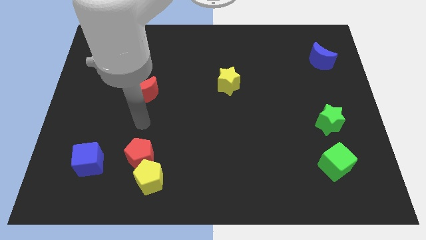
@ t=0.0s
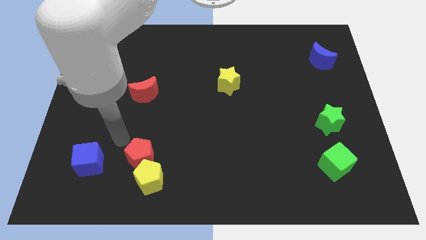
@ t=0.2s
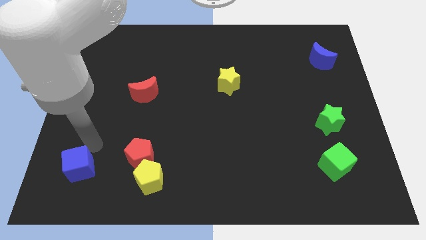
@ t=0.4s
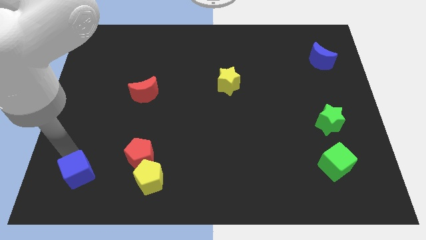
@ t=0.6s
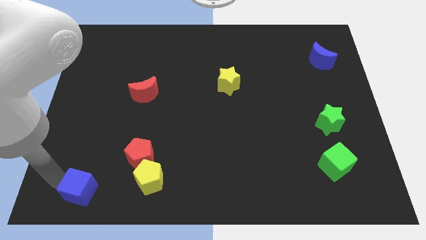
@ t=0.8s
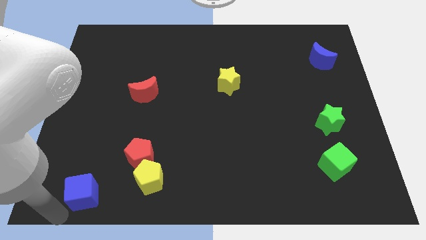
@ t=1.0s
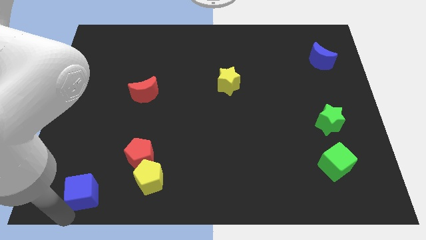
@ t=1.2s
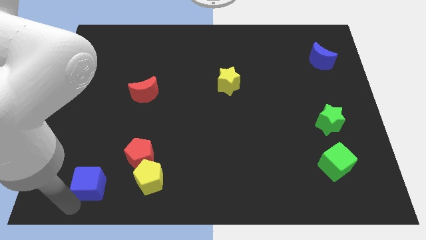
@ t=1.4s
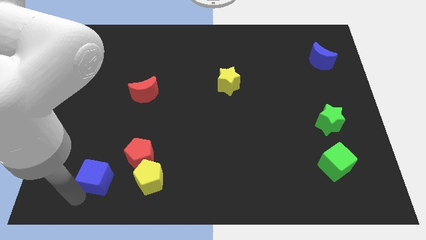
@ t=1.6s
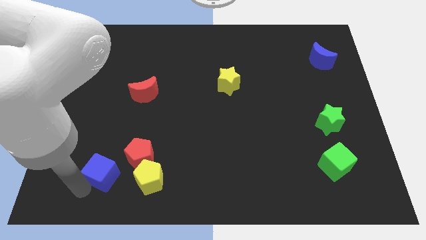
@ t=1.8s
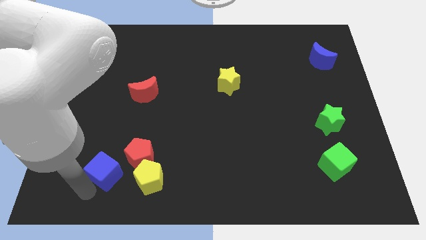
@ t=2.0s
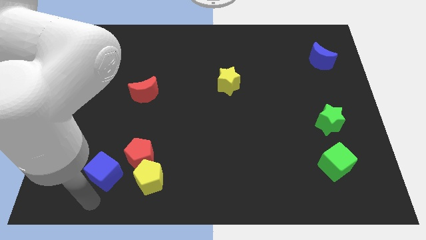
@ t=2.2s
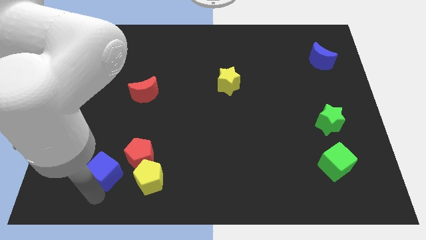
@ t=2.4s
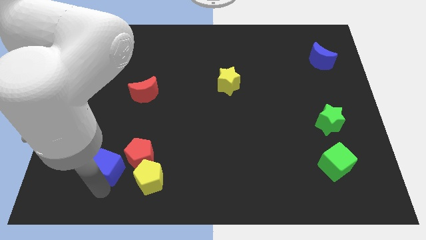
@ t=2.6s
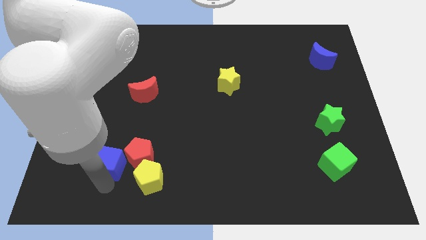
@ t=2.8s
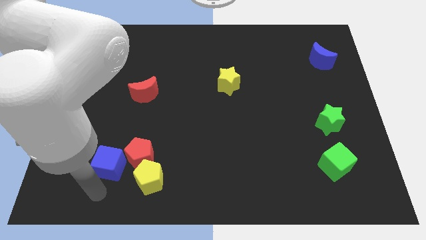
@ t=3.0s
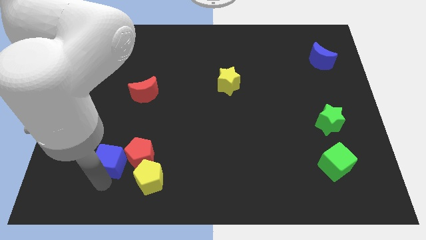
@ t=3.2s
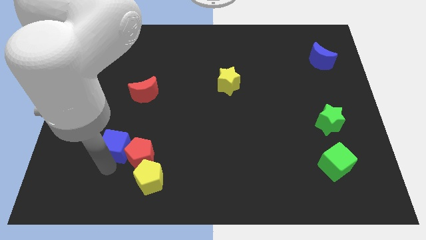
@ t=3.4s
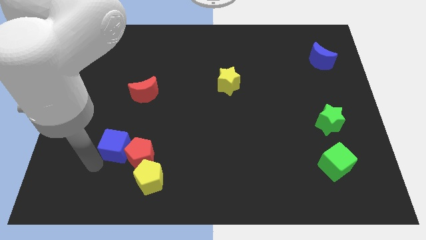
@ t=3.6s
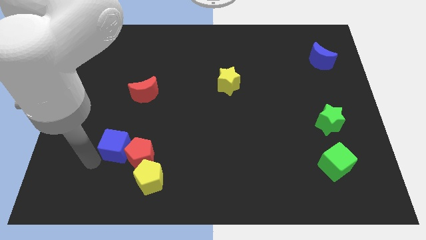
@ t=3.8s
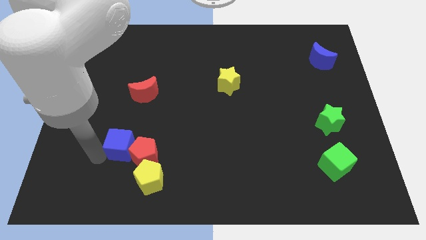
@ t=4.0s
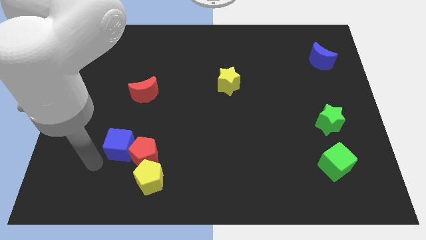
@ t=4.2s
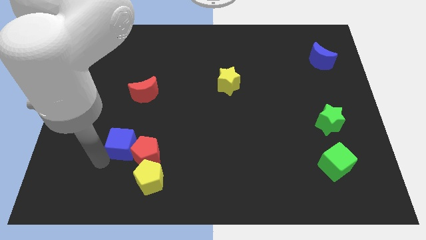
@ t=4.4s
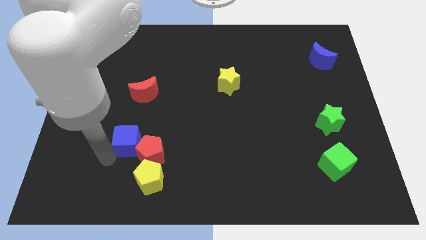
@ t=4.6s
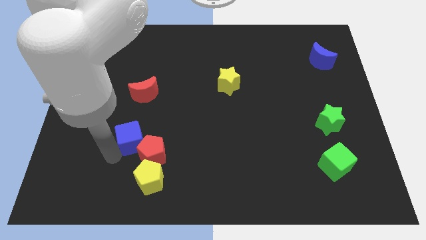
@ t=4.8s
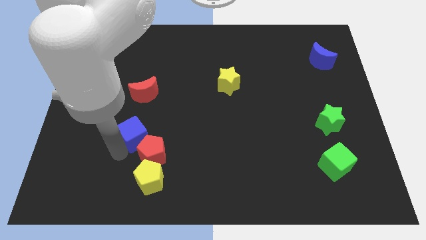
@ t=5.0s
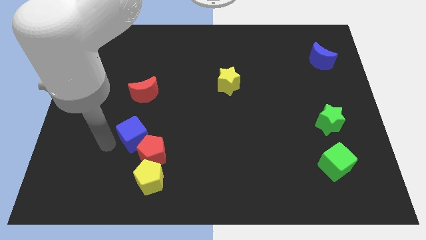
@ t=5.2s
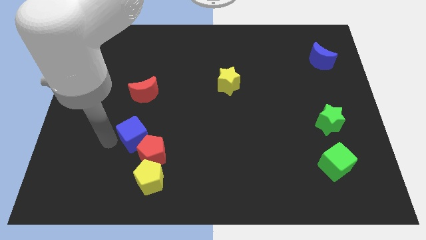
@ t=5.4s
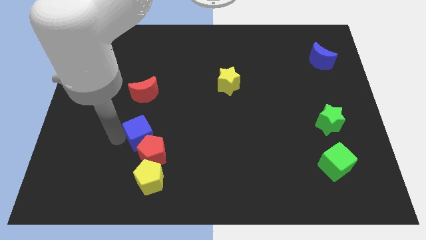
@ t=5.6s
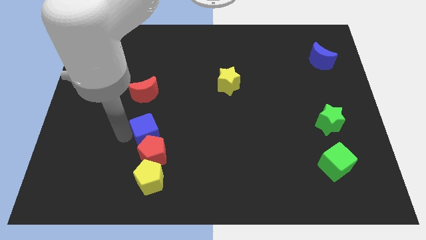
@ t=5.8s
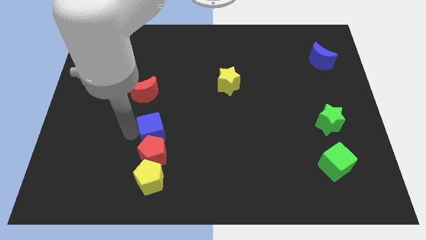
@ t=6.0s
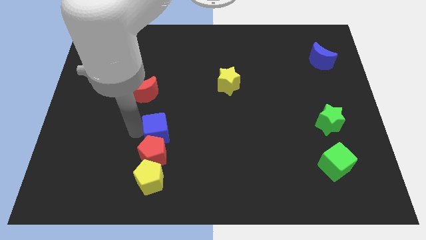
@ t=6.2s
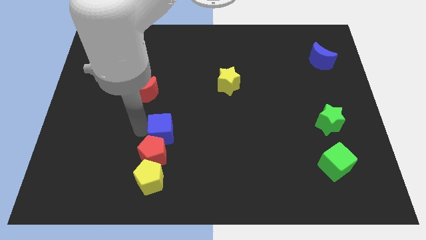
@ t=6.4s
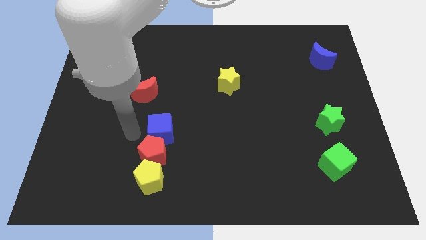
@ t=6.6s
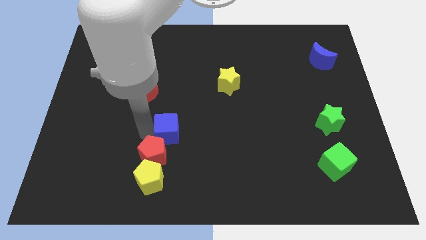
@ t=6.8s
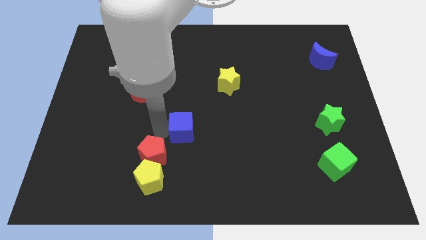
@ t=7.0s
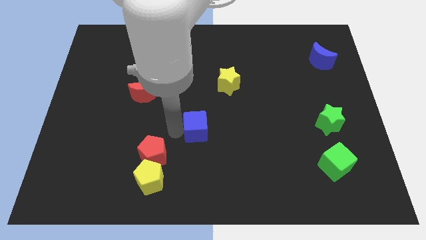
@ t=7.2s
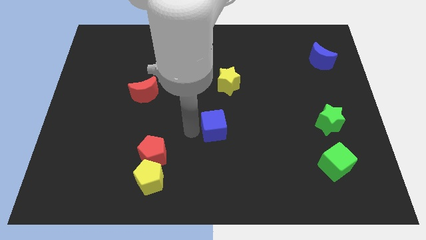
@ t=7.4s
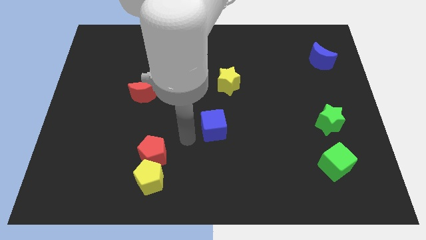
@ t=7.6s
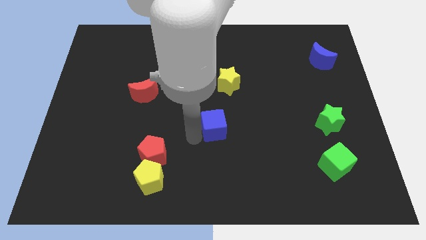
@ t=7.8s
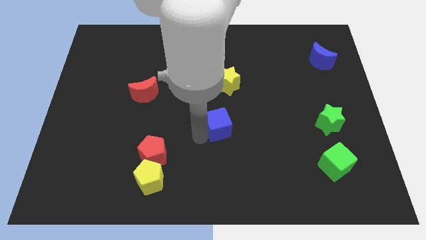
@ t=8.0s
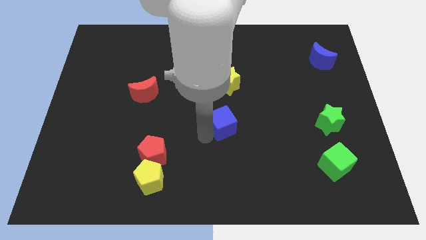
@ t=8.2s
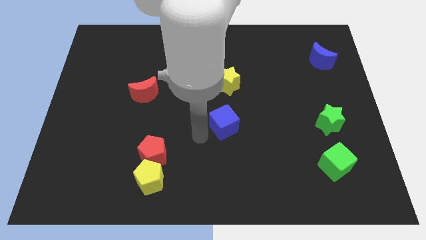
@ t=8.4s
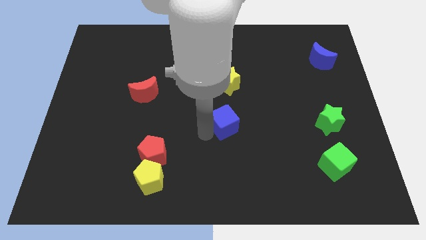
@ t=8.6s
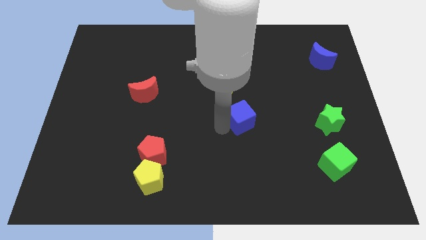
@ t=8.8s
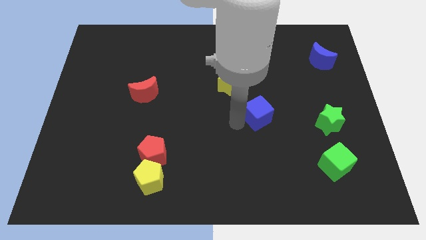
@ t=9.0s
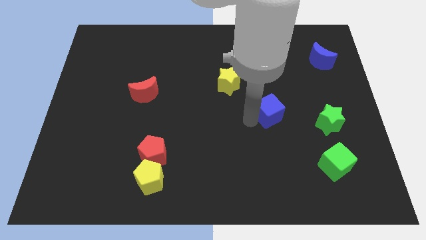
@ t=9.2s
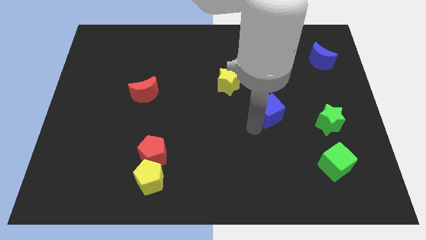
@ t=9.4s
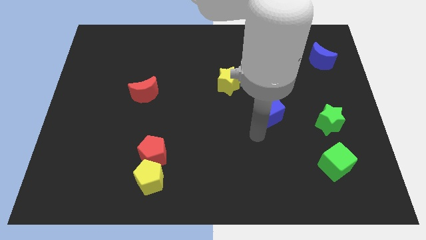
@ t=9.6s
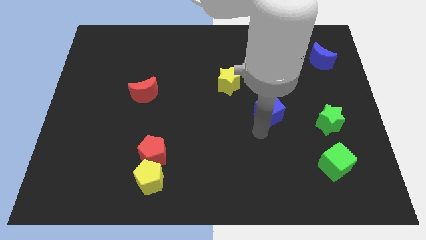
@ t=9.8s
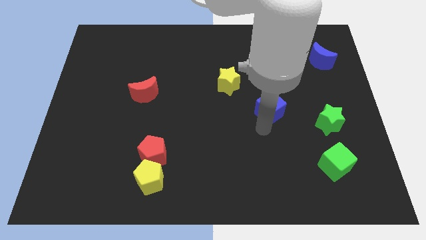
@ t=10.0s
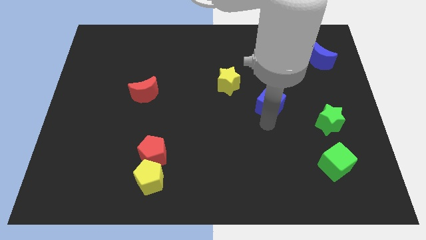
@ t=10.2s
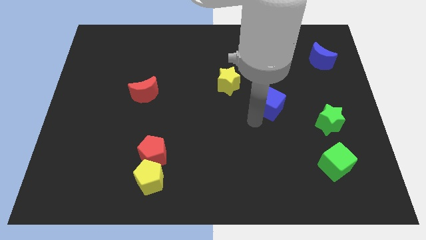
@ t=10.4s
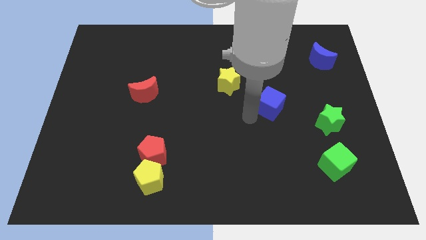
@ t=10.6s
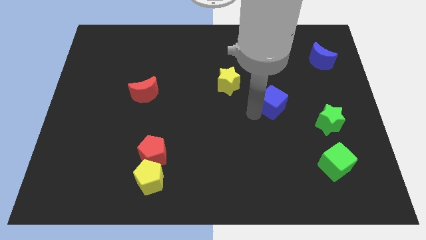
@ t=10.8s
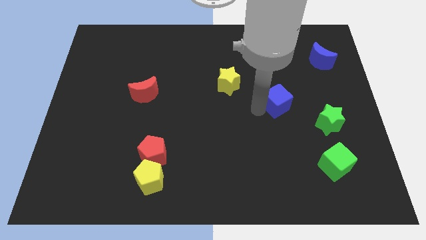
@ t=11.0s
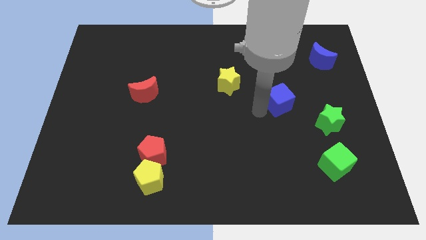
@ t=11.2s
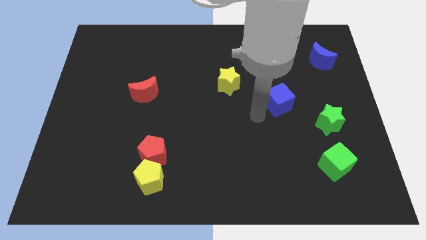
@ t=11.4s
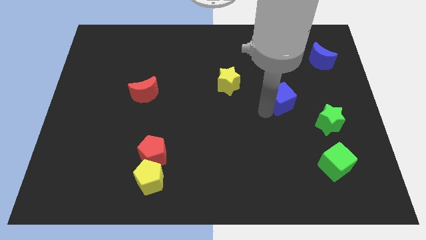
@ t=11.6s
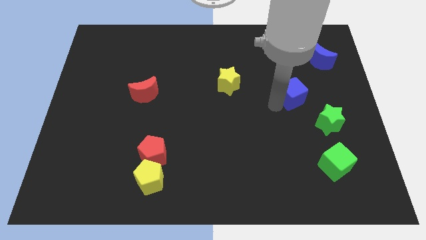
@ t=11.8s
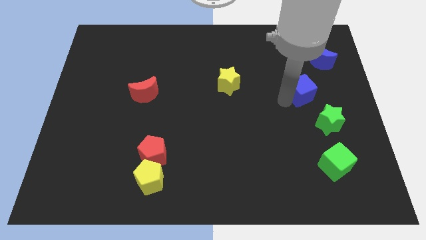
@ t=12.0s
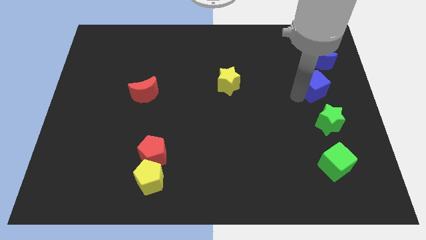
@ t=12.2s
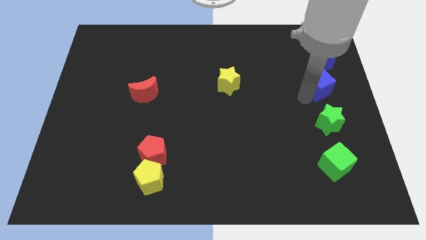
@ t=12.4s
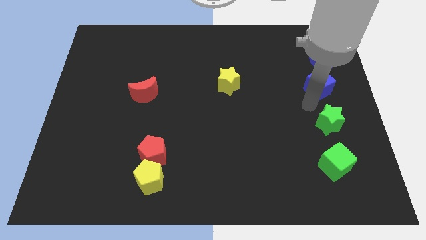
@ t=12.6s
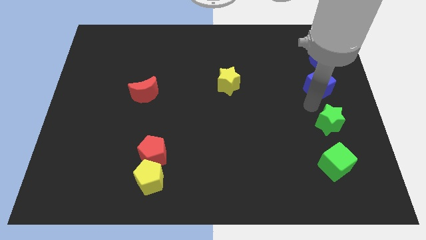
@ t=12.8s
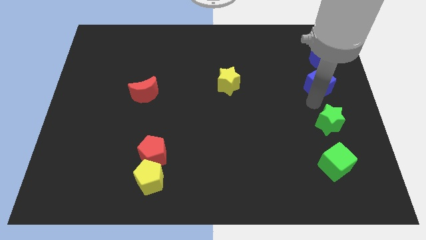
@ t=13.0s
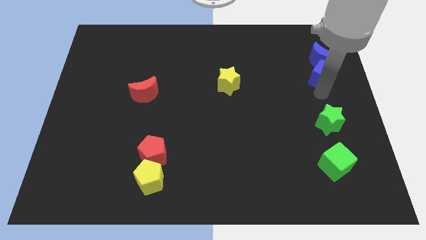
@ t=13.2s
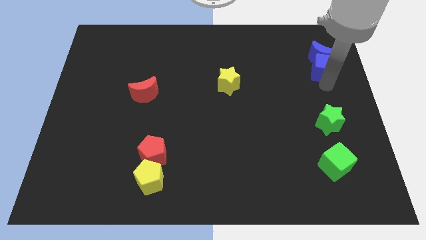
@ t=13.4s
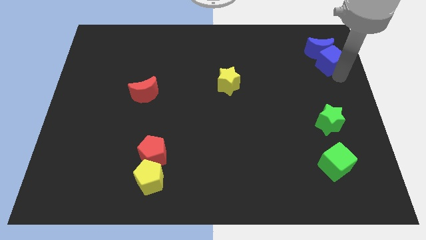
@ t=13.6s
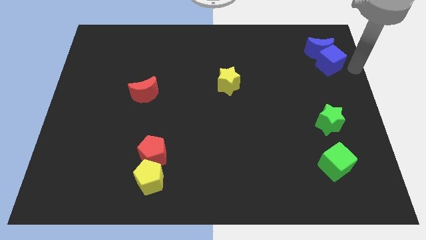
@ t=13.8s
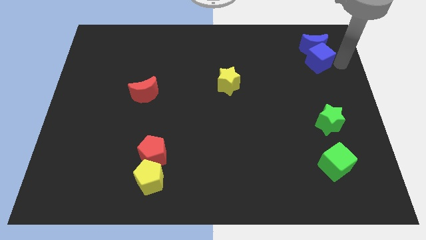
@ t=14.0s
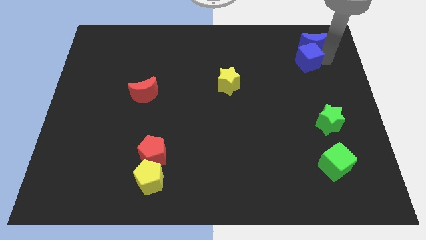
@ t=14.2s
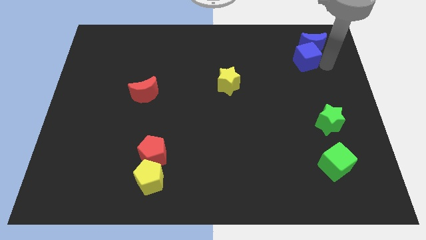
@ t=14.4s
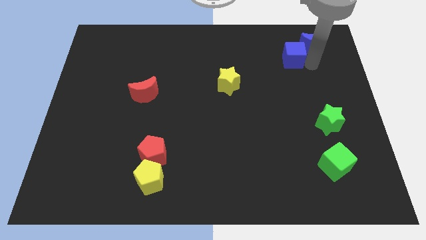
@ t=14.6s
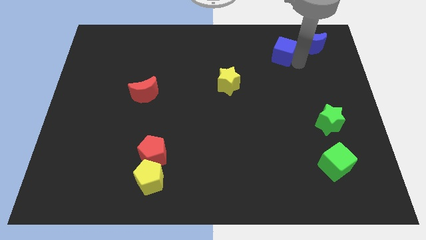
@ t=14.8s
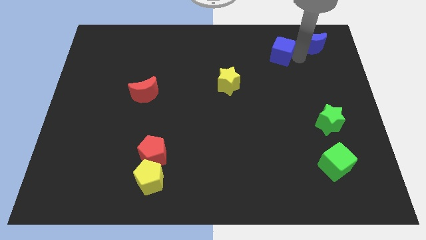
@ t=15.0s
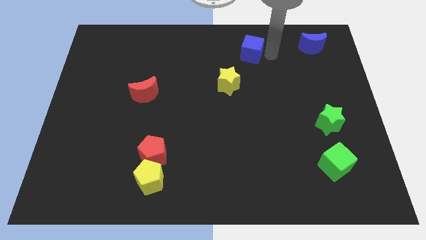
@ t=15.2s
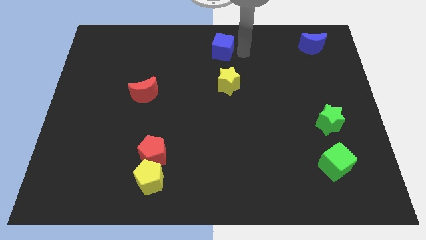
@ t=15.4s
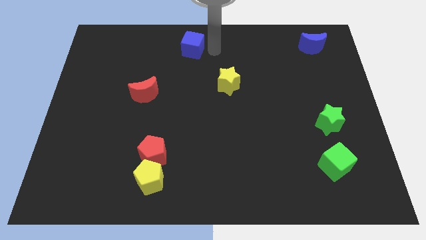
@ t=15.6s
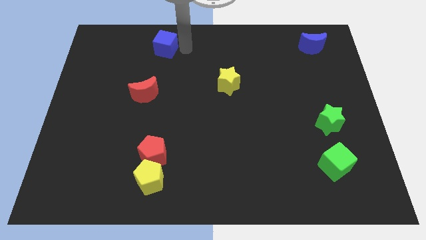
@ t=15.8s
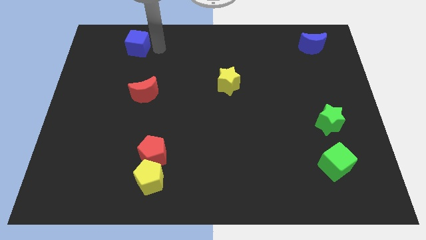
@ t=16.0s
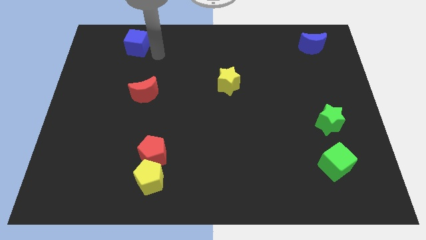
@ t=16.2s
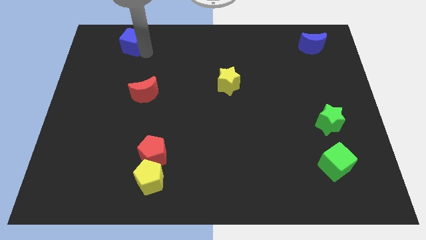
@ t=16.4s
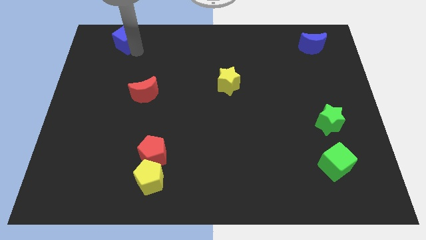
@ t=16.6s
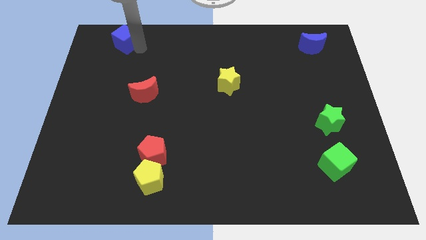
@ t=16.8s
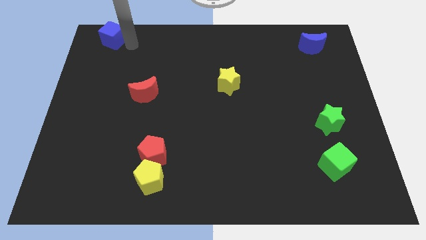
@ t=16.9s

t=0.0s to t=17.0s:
put the blue cube to the top left
